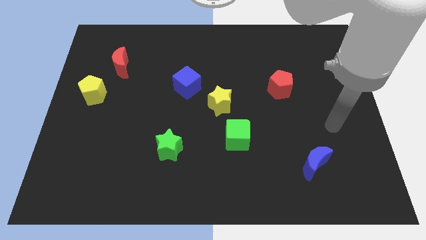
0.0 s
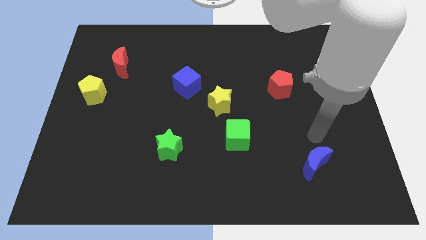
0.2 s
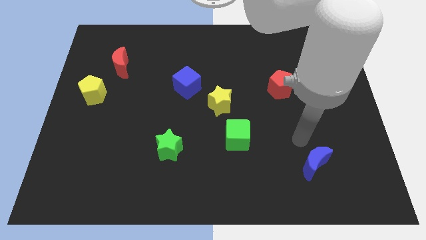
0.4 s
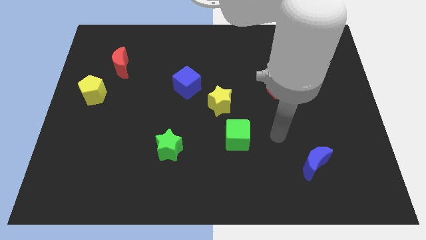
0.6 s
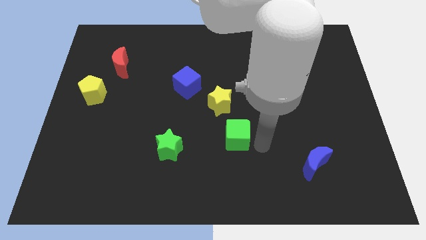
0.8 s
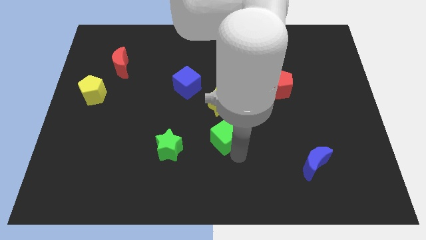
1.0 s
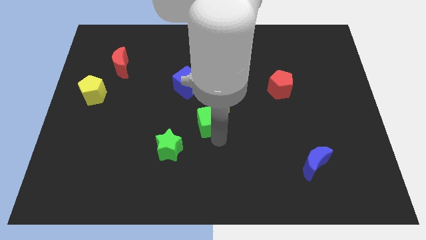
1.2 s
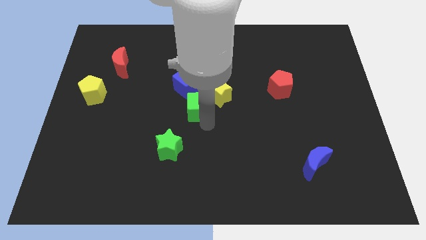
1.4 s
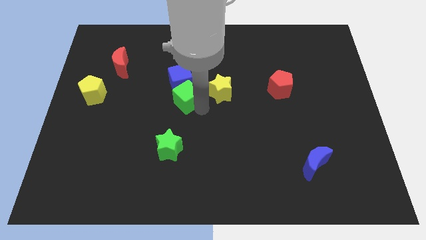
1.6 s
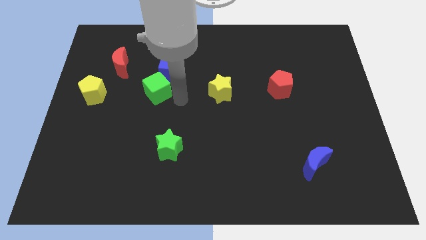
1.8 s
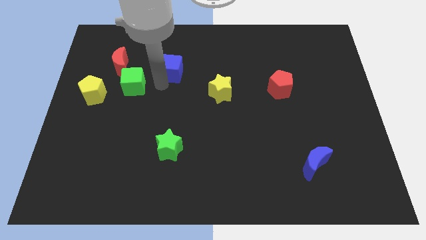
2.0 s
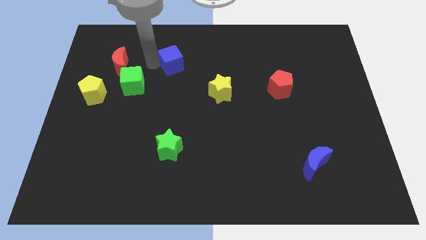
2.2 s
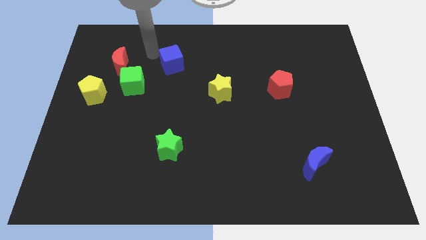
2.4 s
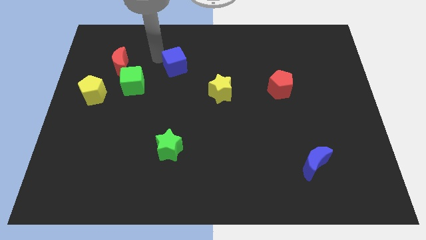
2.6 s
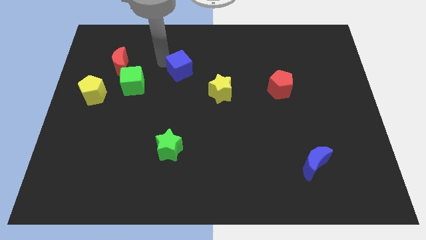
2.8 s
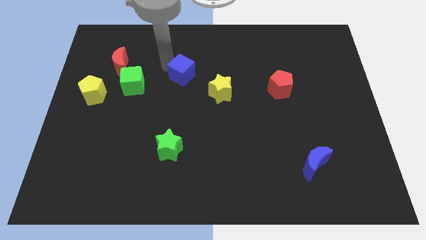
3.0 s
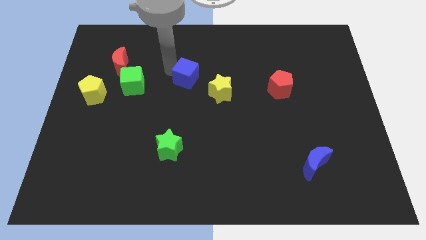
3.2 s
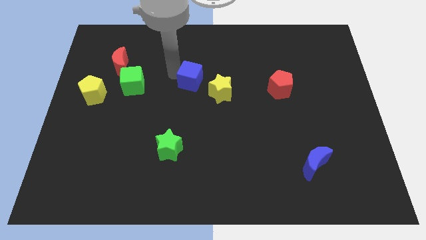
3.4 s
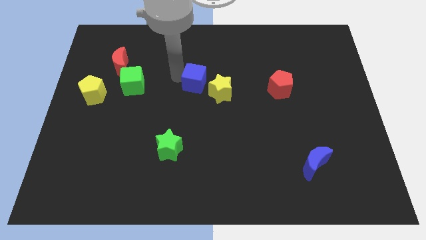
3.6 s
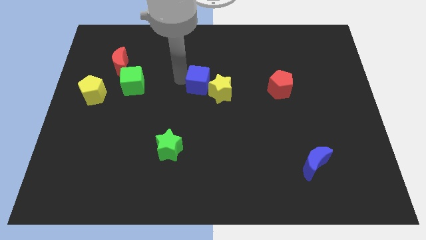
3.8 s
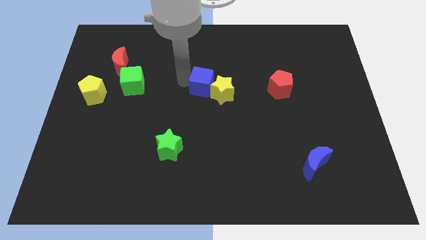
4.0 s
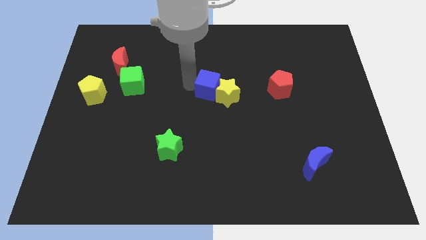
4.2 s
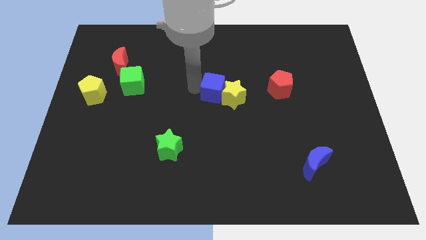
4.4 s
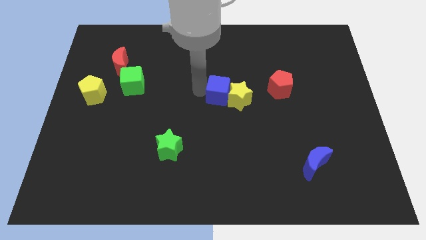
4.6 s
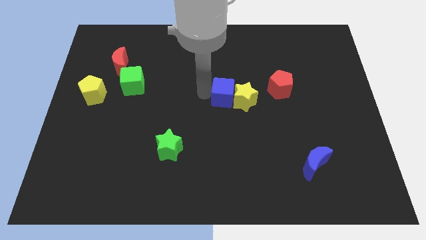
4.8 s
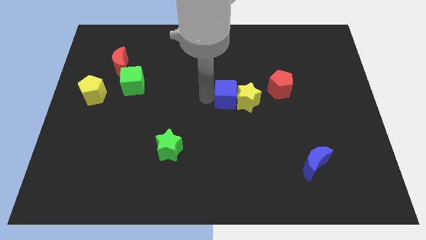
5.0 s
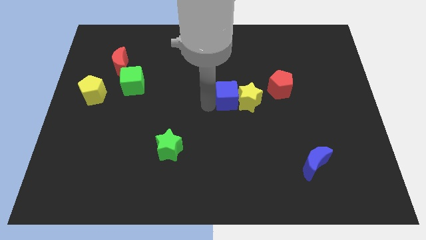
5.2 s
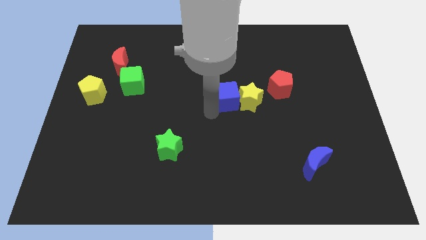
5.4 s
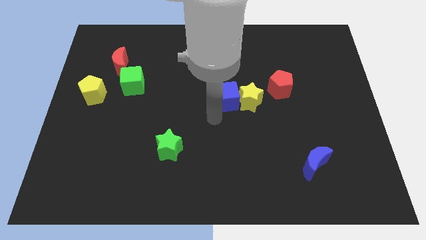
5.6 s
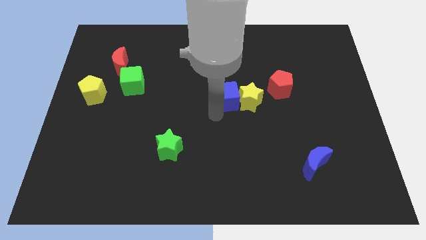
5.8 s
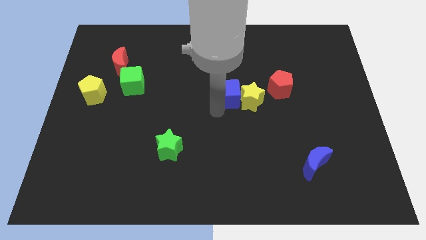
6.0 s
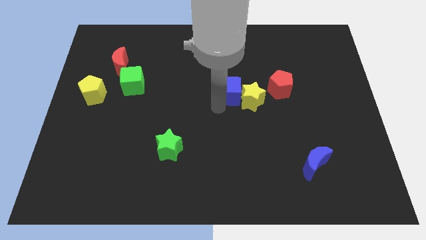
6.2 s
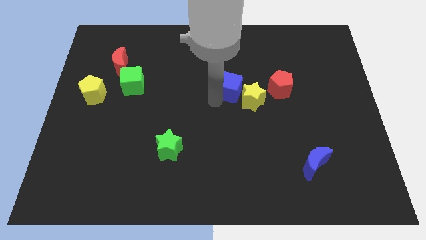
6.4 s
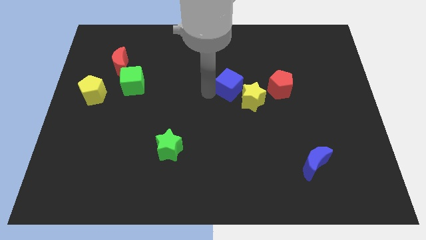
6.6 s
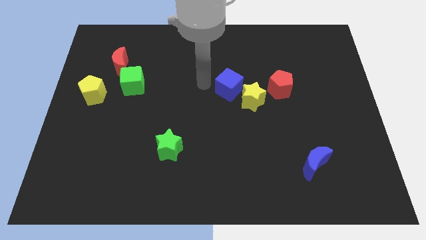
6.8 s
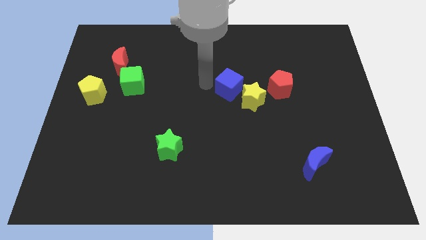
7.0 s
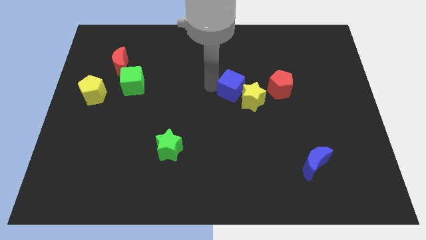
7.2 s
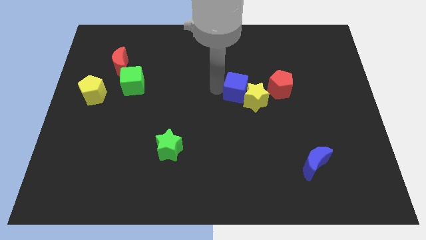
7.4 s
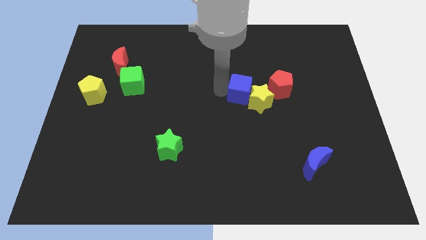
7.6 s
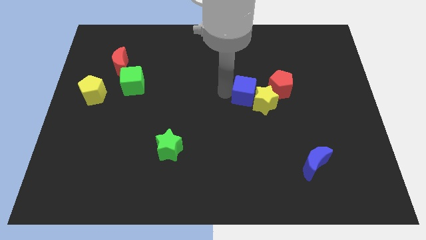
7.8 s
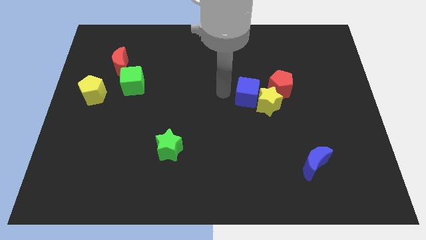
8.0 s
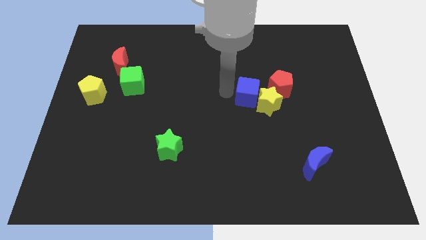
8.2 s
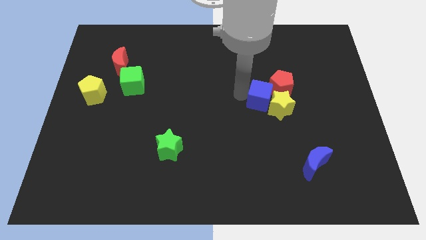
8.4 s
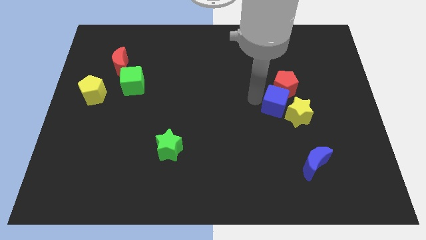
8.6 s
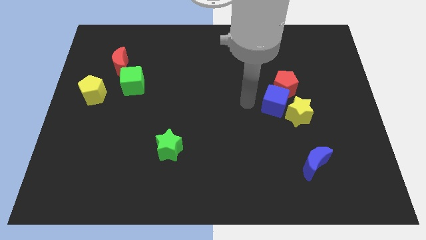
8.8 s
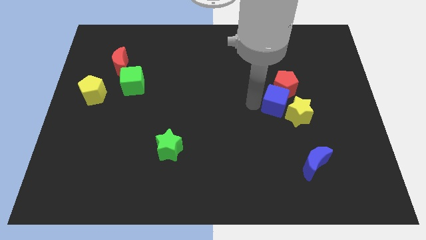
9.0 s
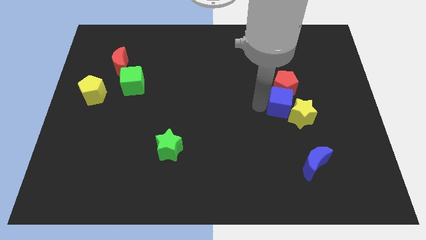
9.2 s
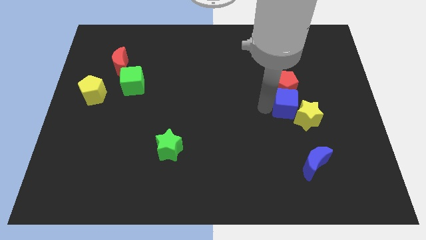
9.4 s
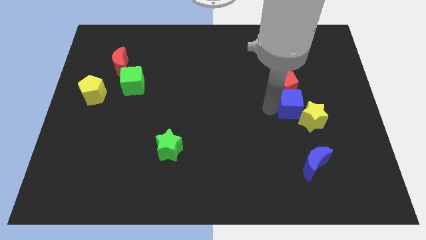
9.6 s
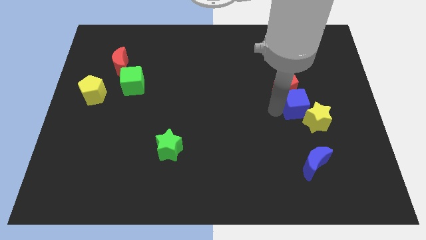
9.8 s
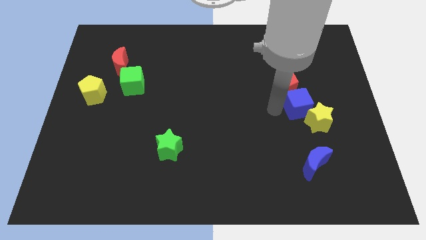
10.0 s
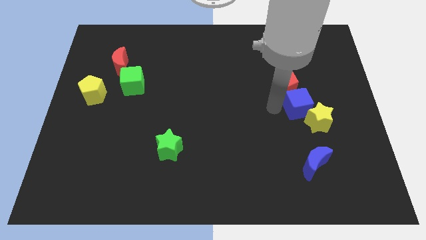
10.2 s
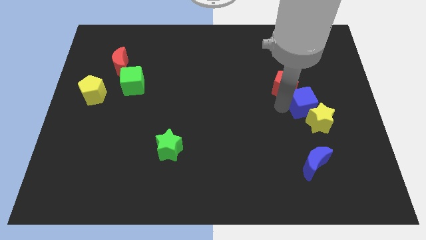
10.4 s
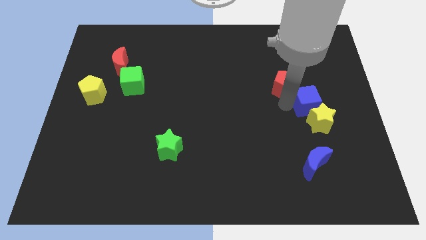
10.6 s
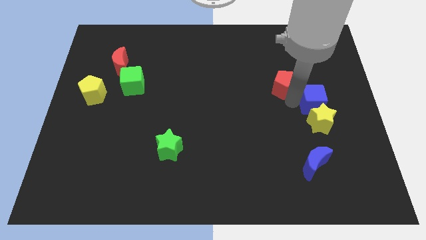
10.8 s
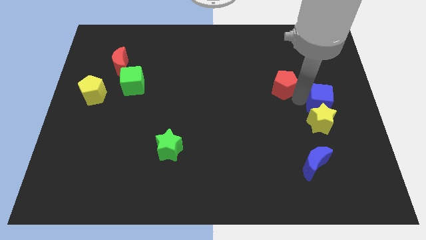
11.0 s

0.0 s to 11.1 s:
slide the blue cube to the right side of the board

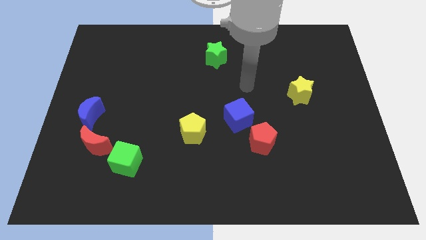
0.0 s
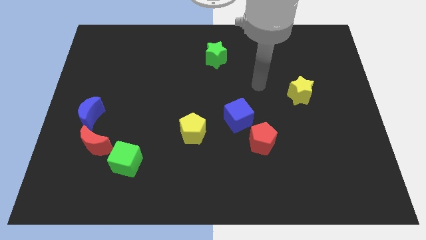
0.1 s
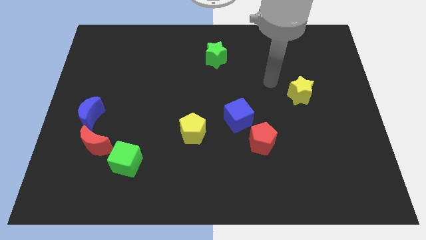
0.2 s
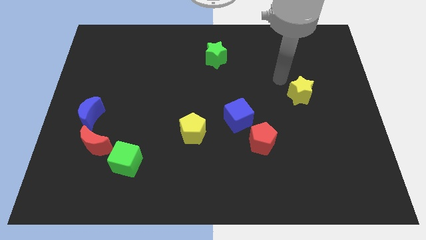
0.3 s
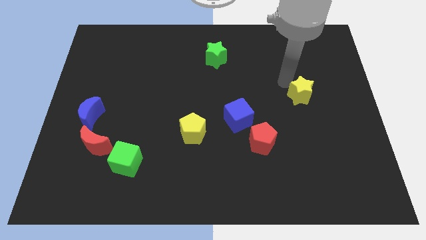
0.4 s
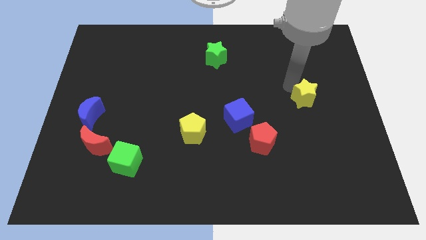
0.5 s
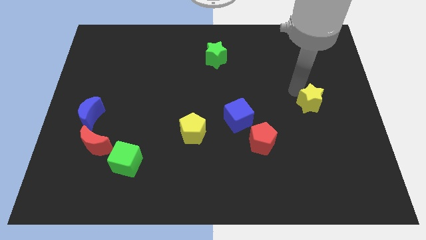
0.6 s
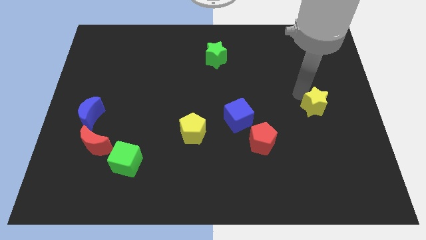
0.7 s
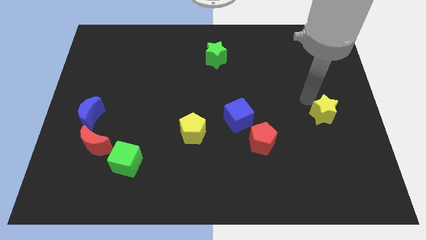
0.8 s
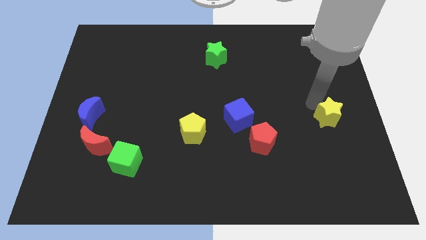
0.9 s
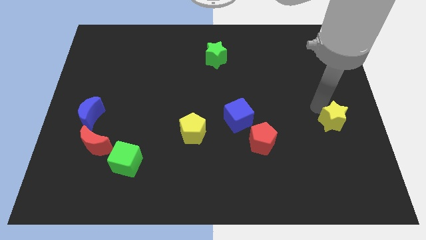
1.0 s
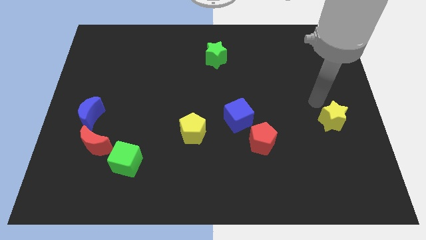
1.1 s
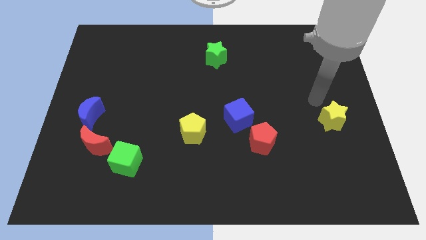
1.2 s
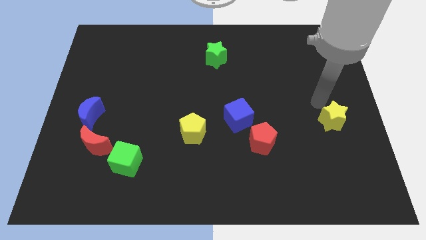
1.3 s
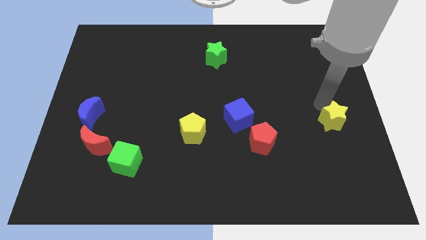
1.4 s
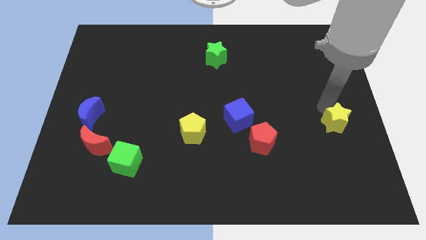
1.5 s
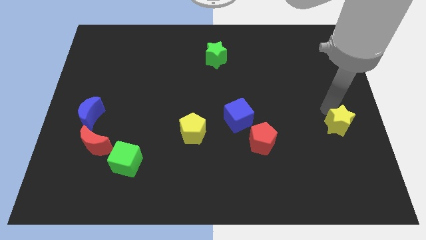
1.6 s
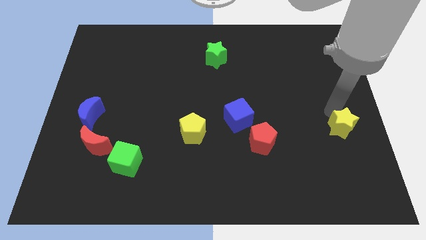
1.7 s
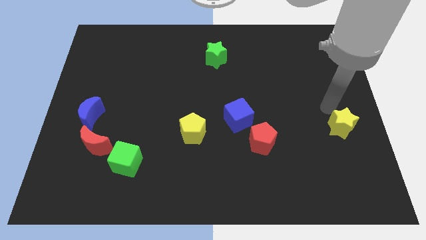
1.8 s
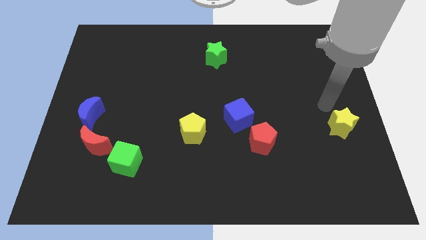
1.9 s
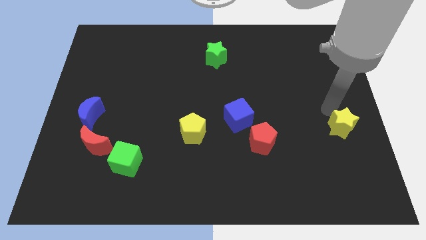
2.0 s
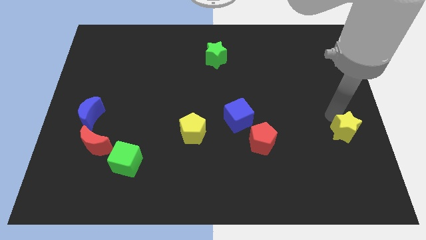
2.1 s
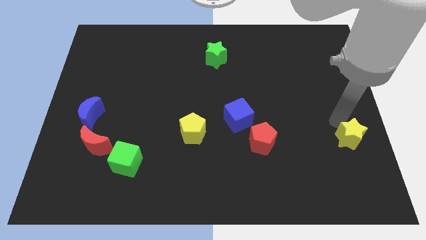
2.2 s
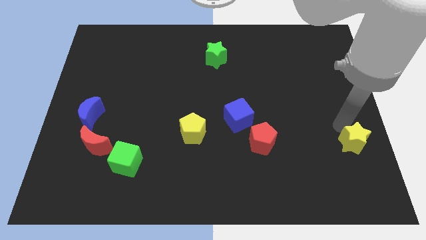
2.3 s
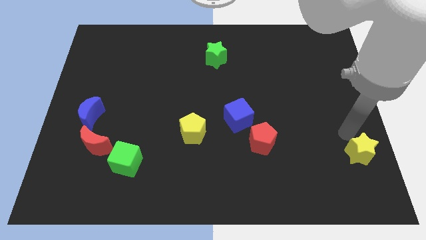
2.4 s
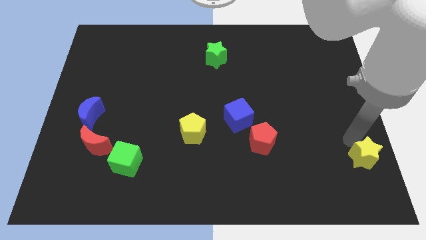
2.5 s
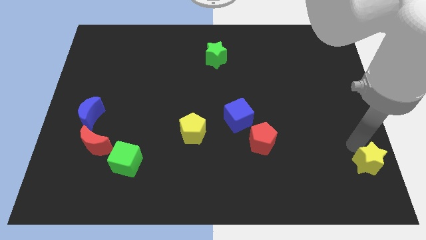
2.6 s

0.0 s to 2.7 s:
put the yellow star to the lower right corner
